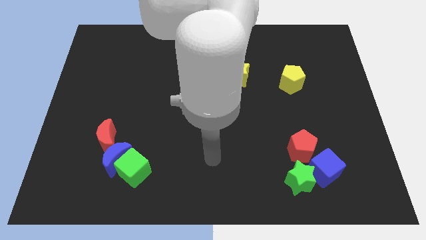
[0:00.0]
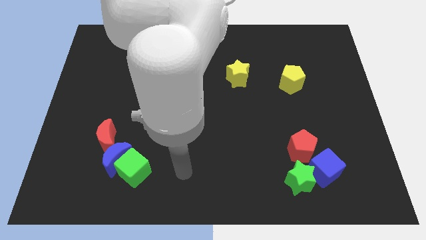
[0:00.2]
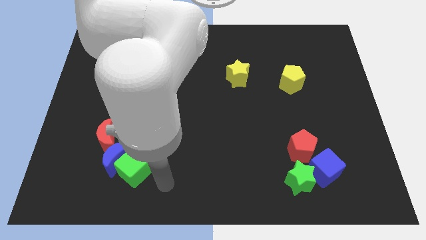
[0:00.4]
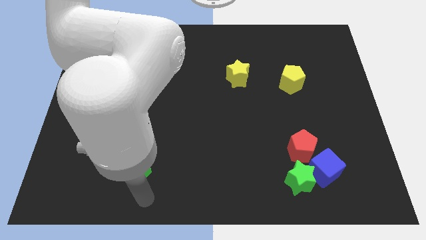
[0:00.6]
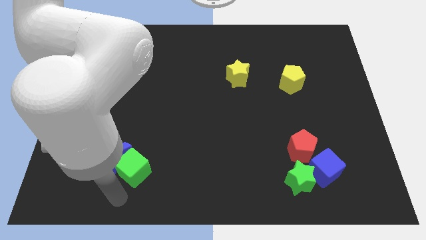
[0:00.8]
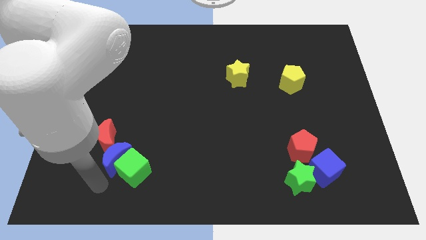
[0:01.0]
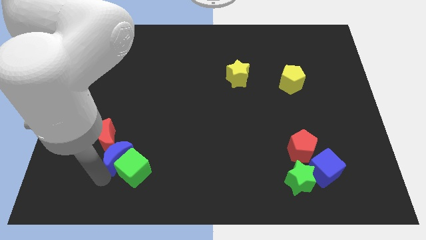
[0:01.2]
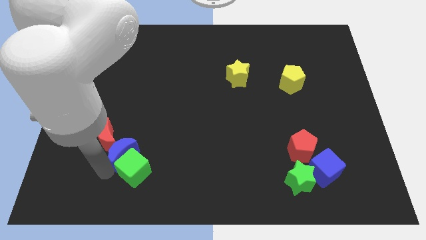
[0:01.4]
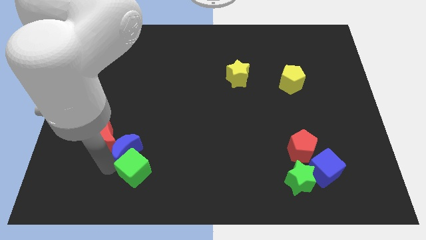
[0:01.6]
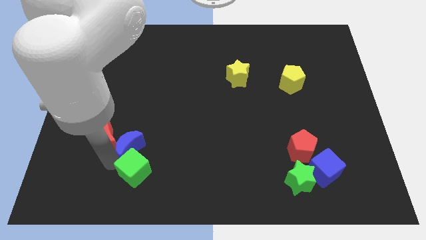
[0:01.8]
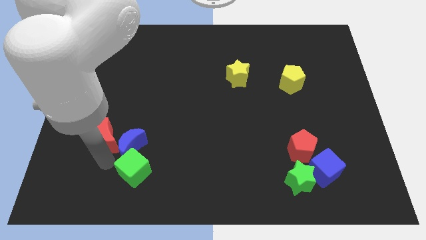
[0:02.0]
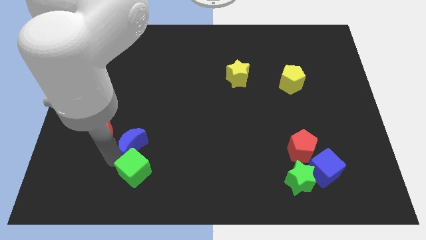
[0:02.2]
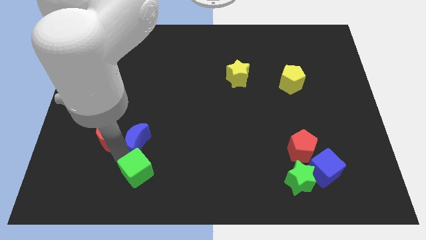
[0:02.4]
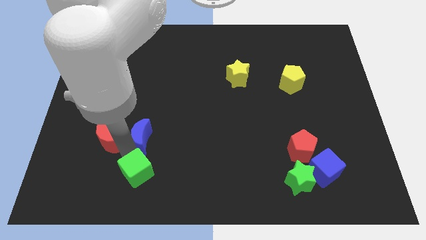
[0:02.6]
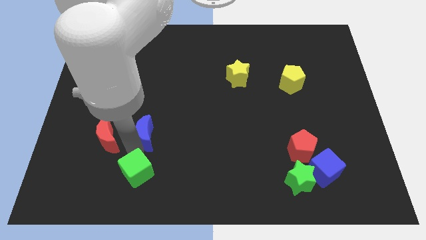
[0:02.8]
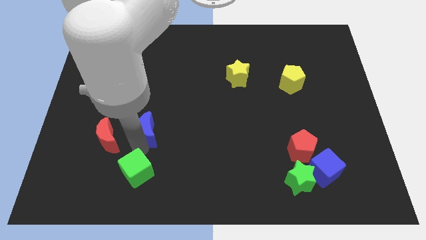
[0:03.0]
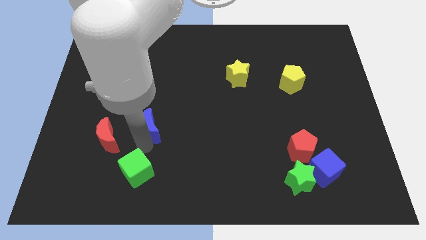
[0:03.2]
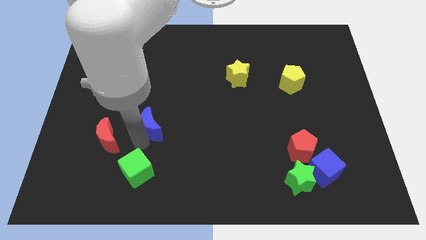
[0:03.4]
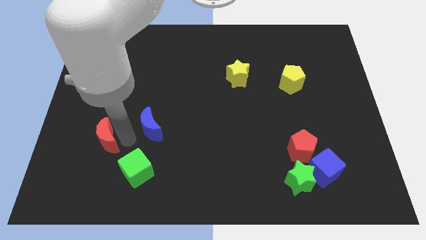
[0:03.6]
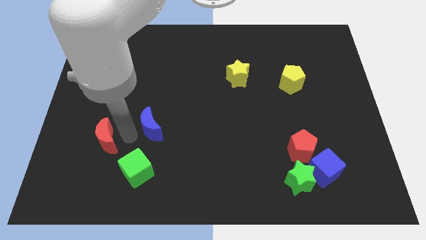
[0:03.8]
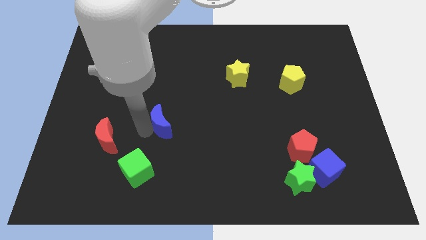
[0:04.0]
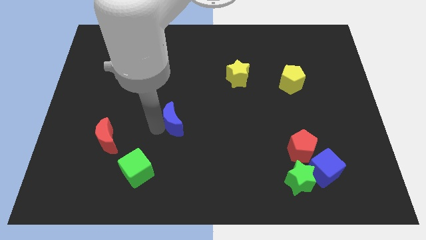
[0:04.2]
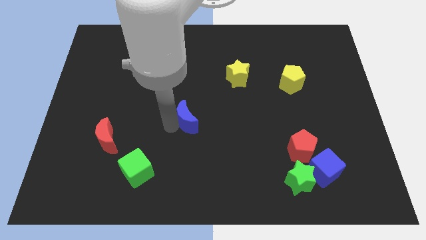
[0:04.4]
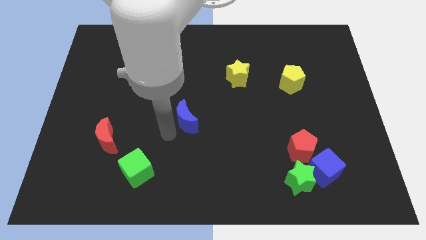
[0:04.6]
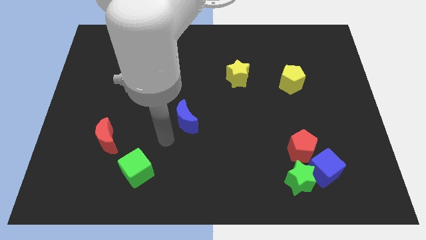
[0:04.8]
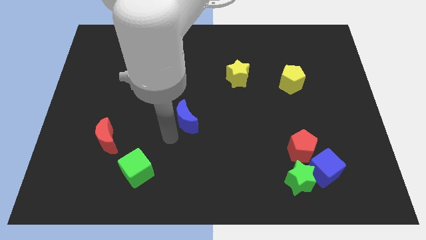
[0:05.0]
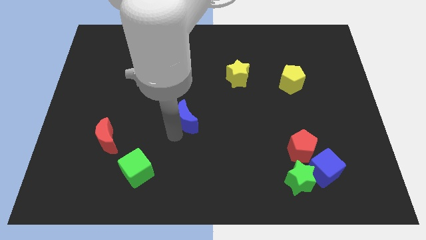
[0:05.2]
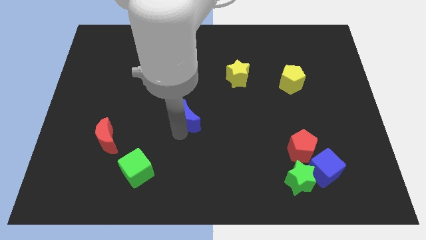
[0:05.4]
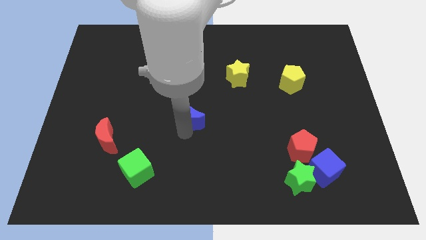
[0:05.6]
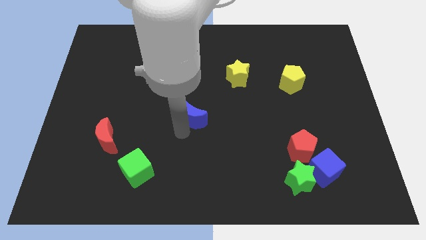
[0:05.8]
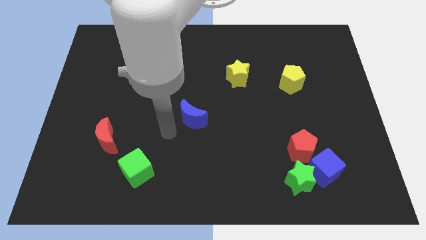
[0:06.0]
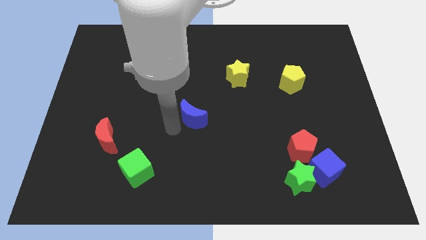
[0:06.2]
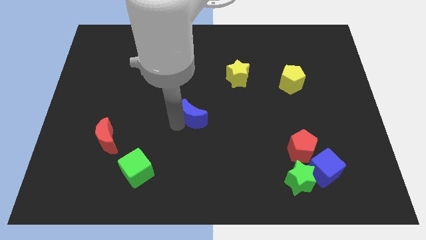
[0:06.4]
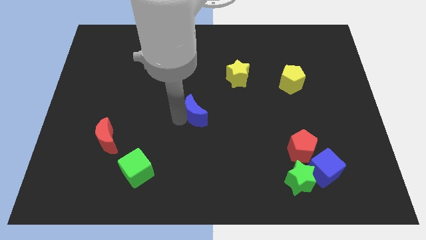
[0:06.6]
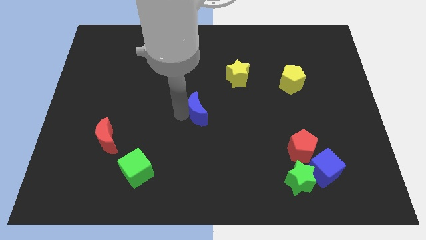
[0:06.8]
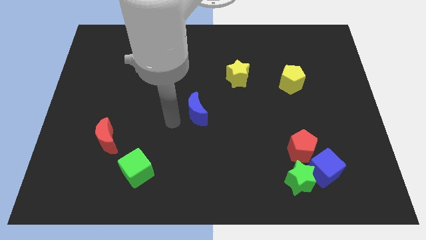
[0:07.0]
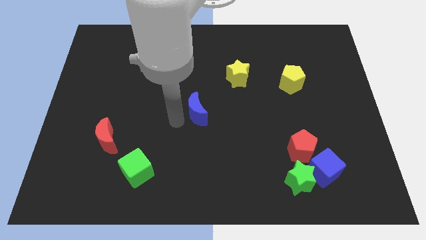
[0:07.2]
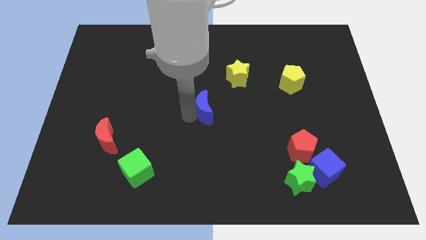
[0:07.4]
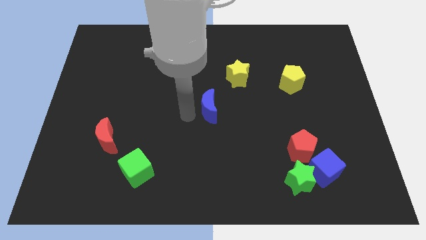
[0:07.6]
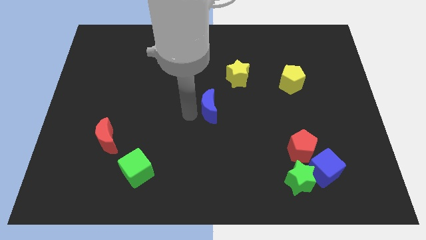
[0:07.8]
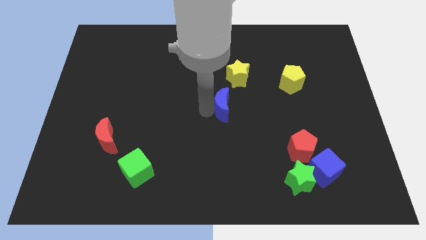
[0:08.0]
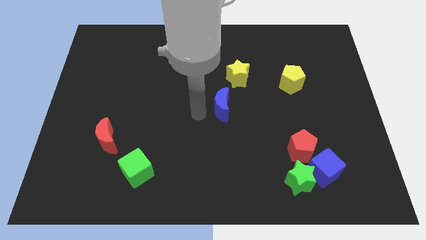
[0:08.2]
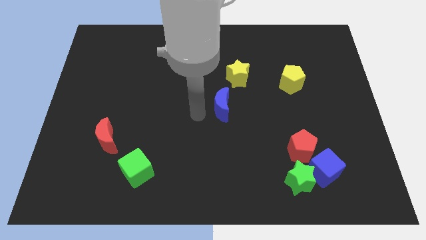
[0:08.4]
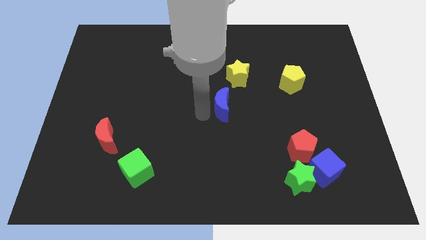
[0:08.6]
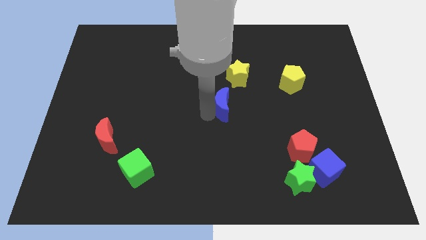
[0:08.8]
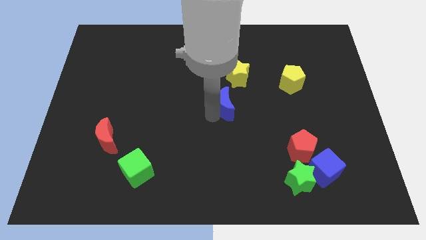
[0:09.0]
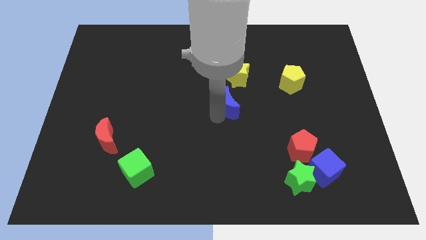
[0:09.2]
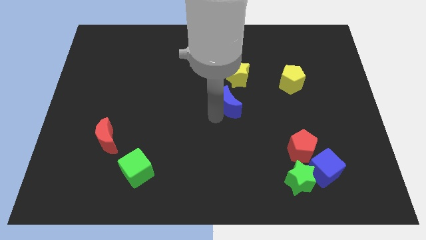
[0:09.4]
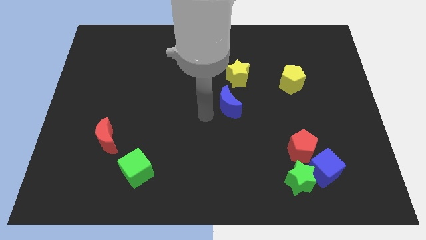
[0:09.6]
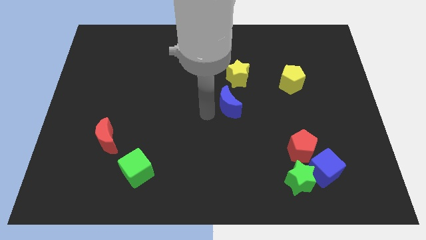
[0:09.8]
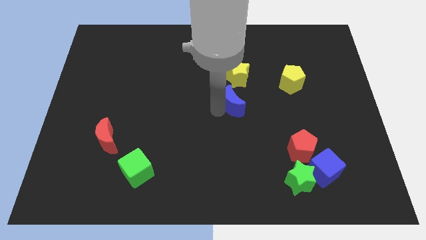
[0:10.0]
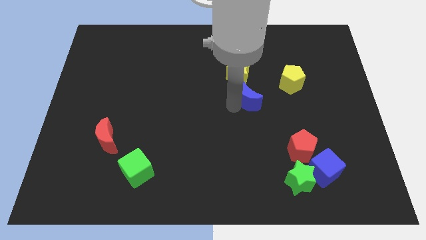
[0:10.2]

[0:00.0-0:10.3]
slide the blue moon to the bottom right of the yellow star

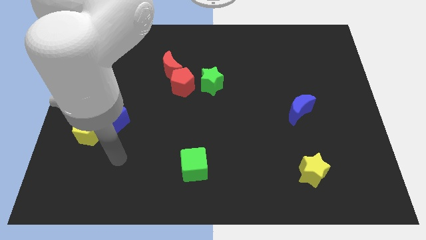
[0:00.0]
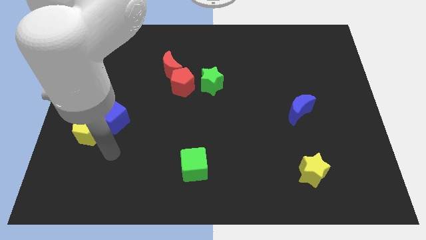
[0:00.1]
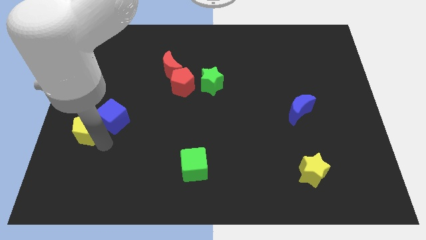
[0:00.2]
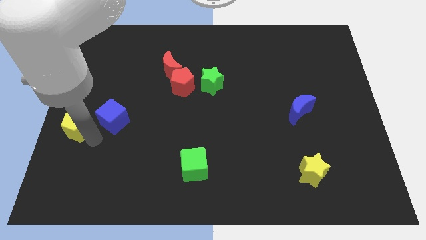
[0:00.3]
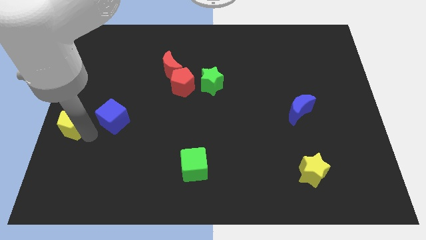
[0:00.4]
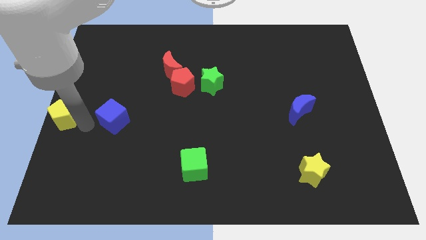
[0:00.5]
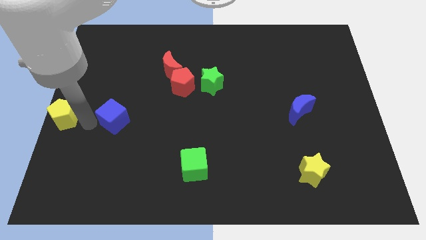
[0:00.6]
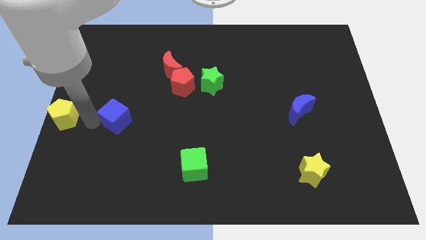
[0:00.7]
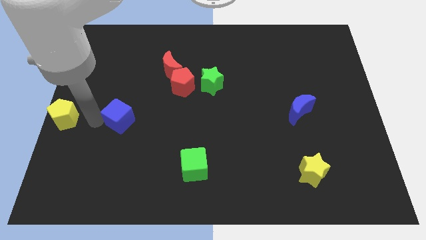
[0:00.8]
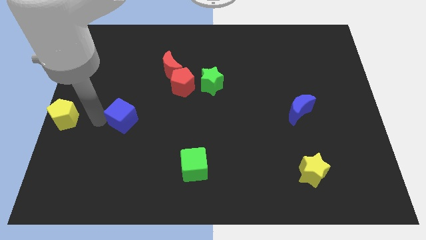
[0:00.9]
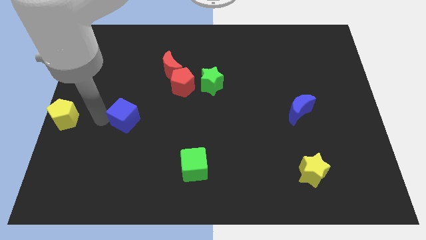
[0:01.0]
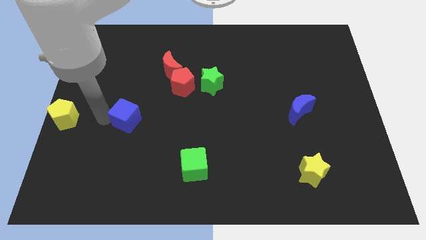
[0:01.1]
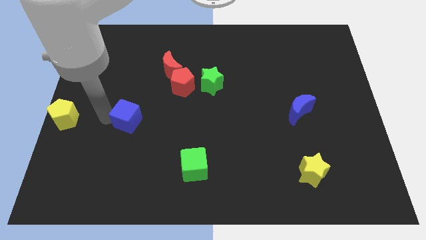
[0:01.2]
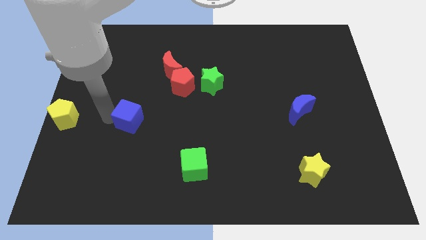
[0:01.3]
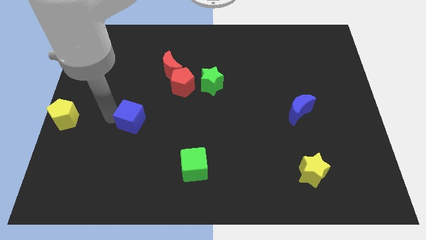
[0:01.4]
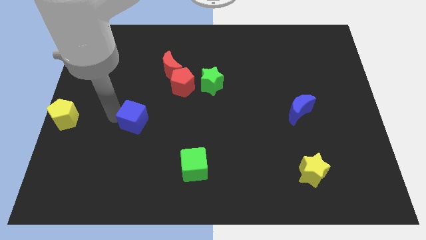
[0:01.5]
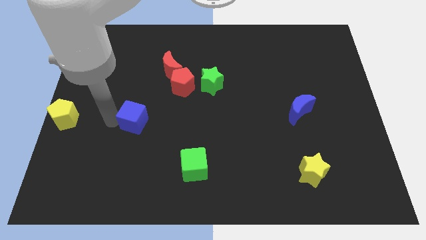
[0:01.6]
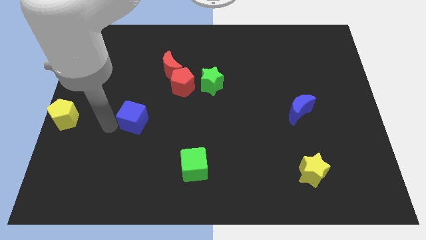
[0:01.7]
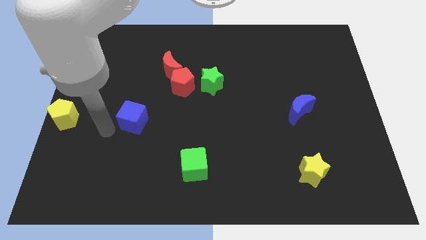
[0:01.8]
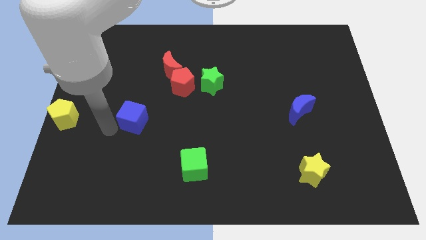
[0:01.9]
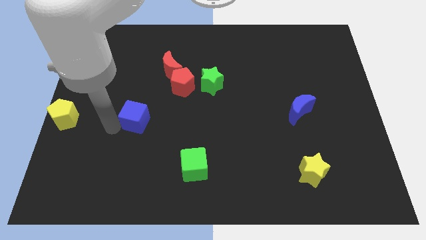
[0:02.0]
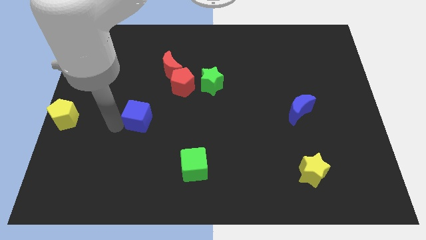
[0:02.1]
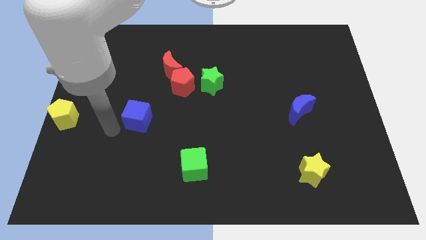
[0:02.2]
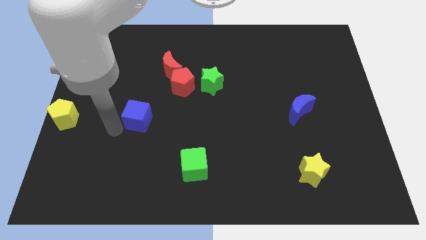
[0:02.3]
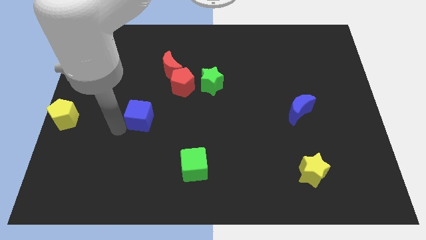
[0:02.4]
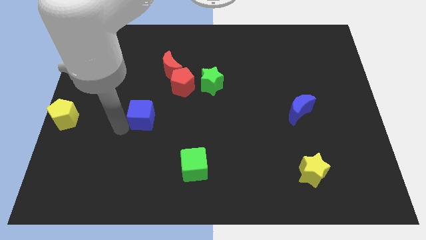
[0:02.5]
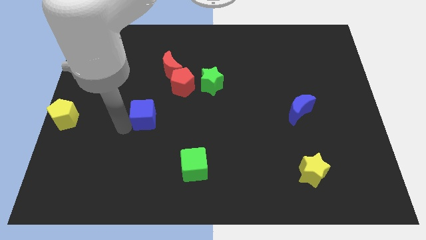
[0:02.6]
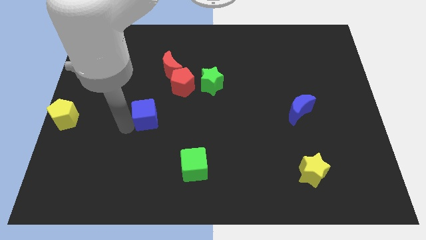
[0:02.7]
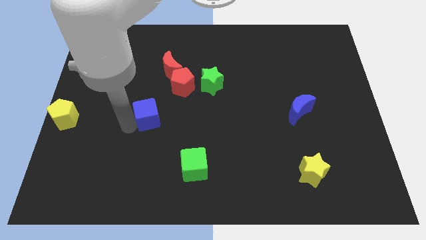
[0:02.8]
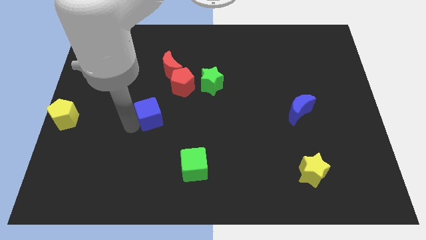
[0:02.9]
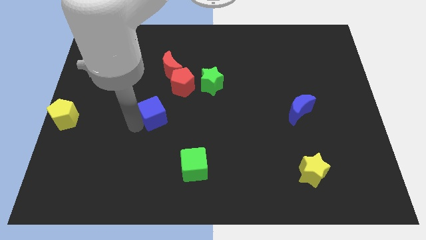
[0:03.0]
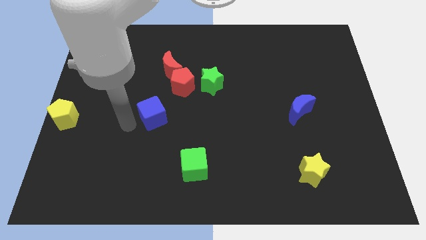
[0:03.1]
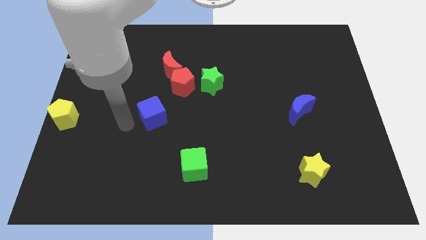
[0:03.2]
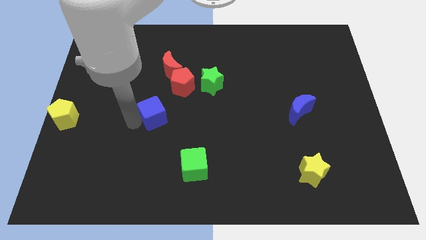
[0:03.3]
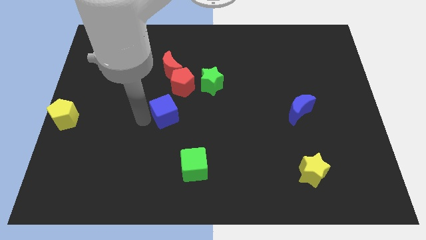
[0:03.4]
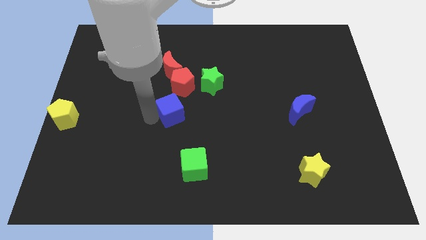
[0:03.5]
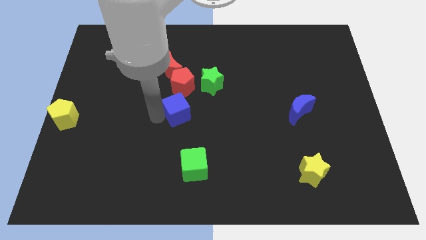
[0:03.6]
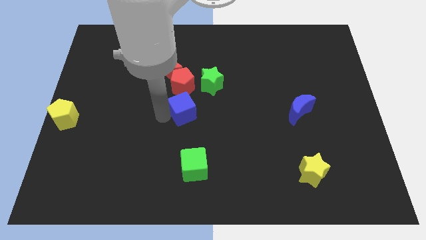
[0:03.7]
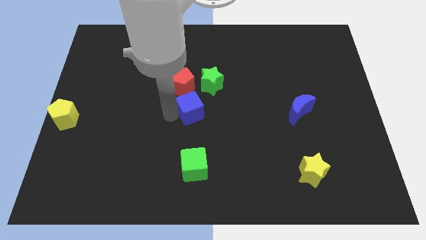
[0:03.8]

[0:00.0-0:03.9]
move the blue cube to the bottom right side of the red pentagon
